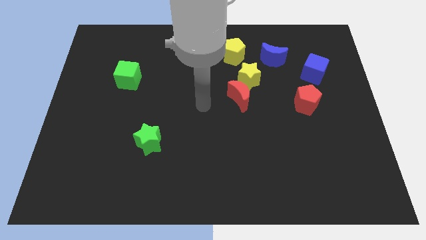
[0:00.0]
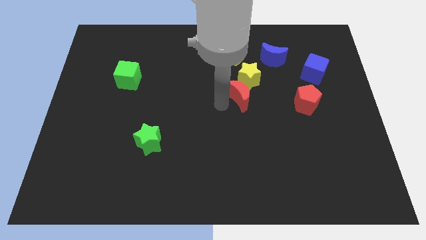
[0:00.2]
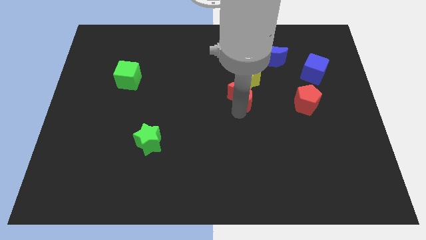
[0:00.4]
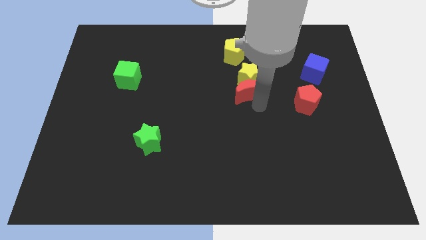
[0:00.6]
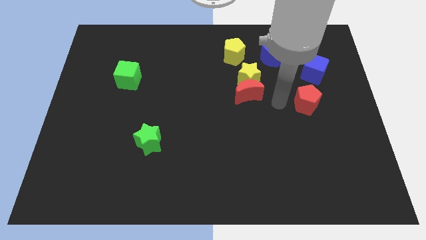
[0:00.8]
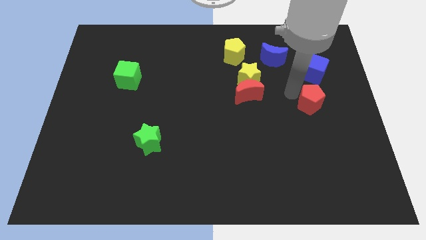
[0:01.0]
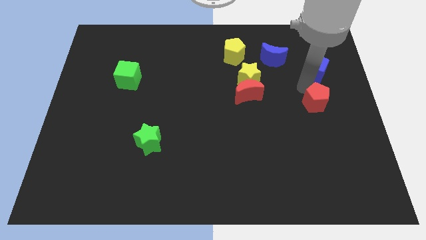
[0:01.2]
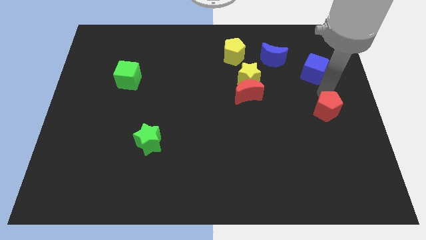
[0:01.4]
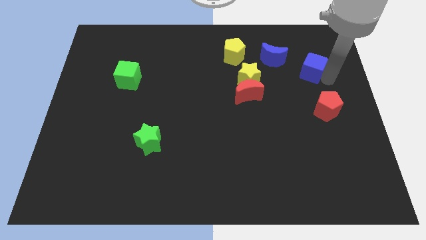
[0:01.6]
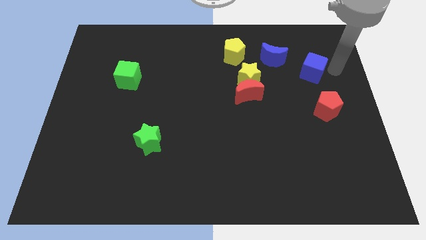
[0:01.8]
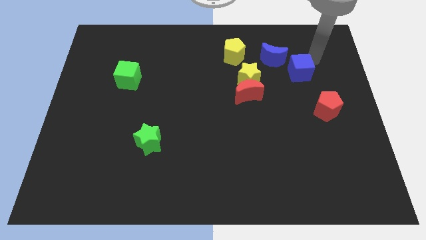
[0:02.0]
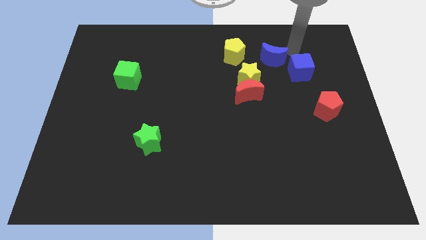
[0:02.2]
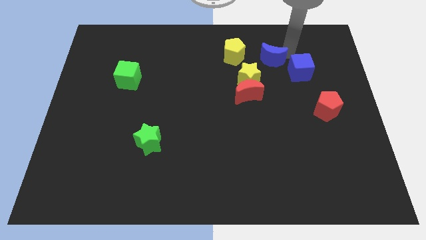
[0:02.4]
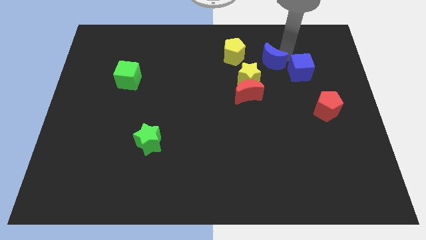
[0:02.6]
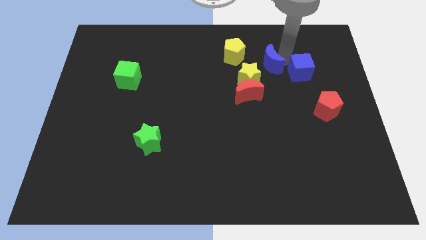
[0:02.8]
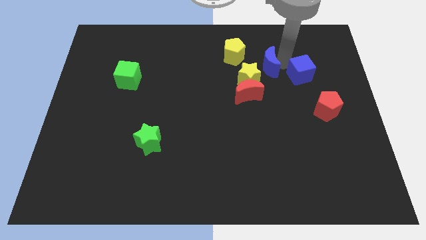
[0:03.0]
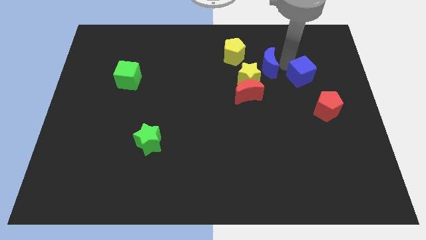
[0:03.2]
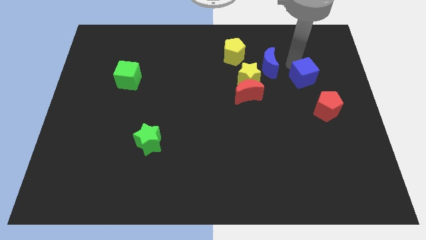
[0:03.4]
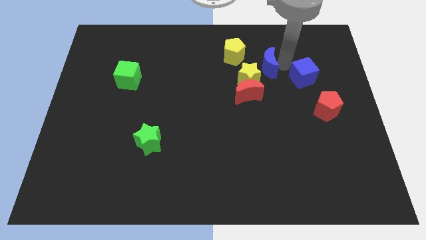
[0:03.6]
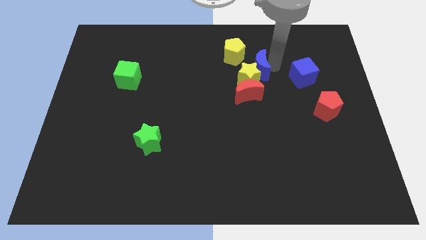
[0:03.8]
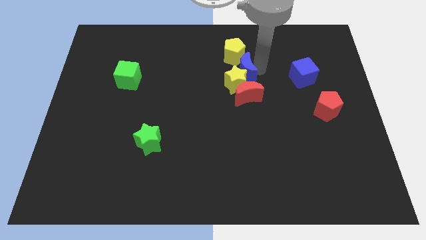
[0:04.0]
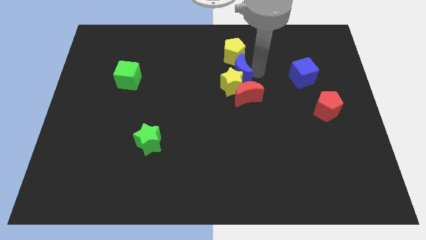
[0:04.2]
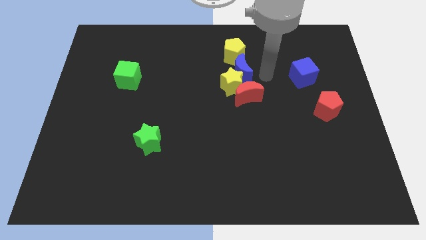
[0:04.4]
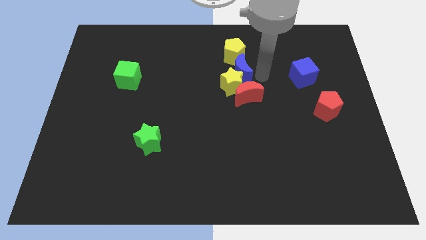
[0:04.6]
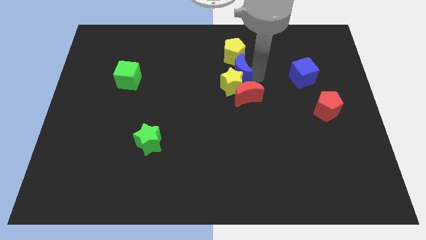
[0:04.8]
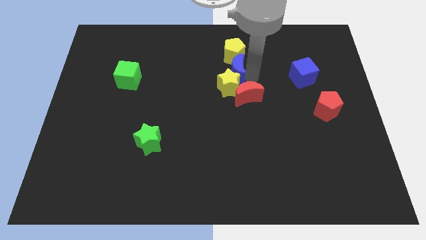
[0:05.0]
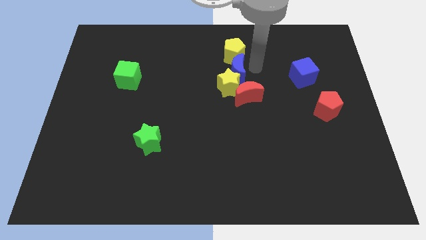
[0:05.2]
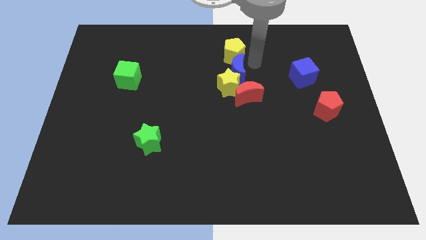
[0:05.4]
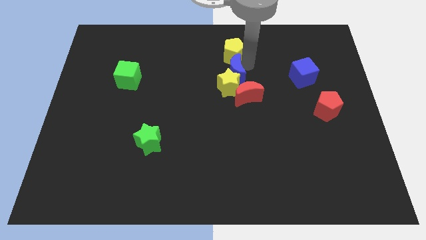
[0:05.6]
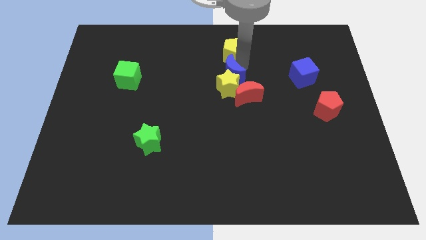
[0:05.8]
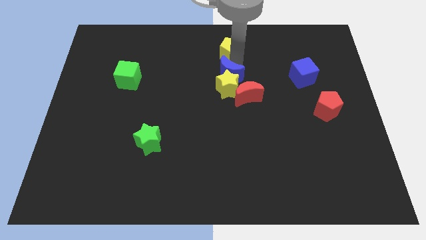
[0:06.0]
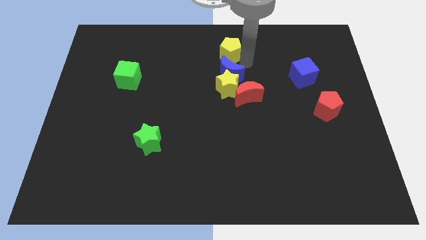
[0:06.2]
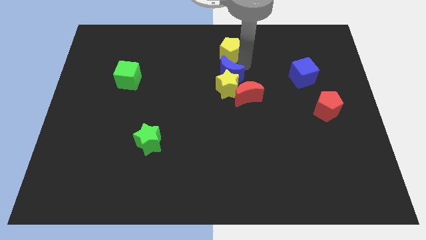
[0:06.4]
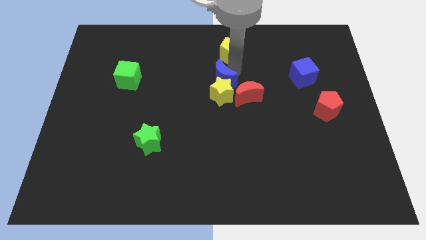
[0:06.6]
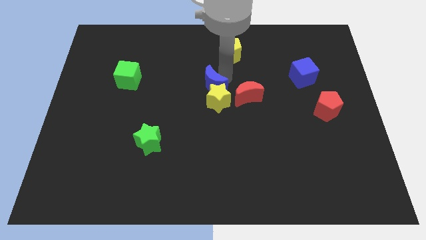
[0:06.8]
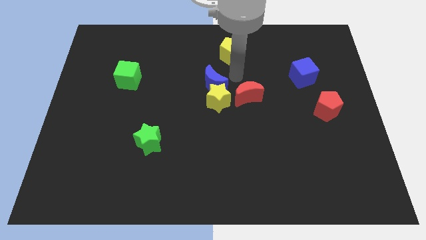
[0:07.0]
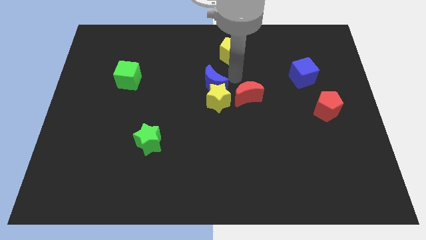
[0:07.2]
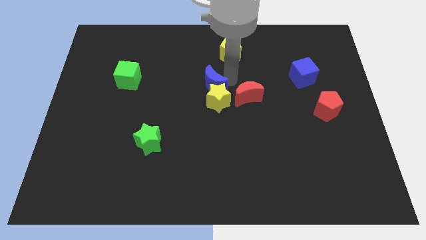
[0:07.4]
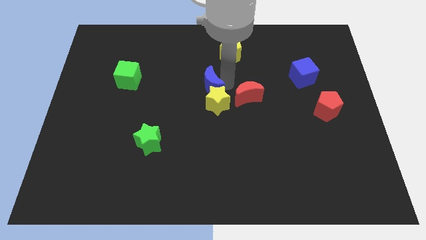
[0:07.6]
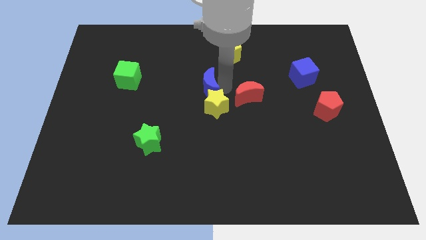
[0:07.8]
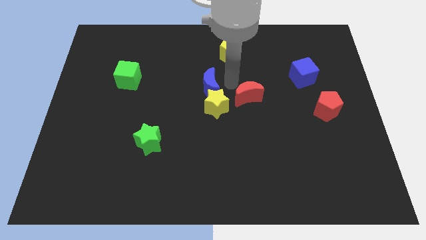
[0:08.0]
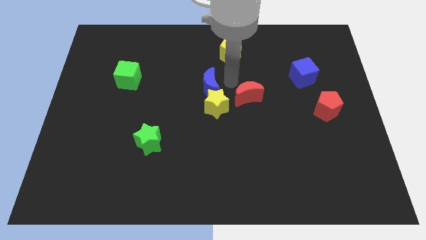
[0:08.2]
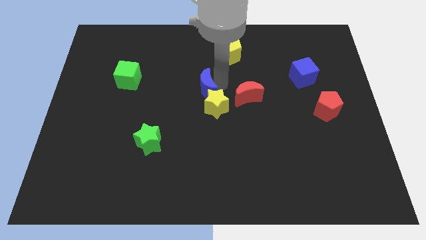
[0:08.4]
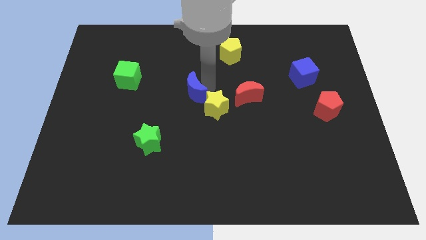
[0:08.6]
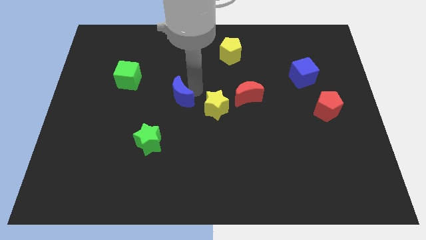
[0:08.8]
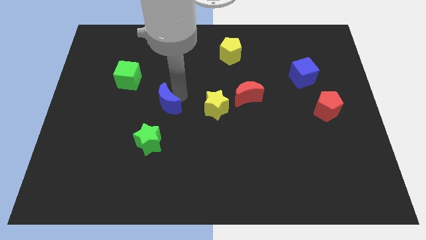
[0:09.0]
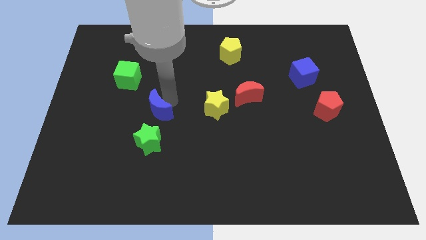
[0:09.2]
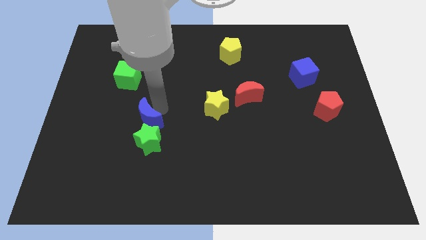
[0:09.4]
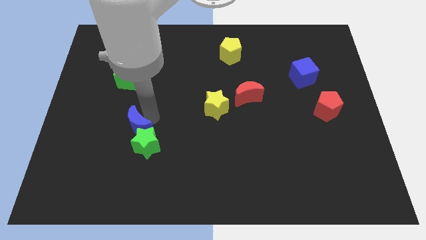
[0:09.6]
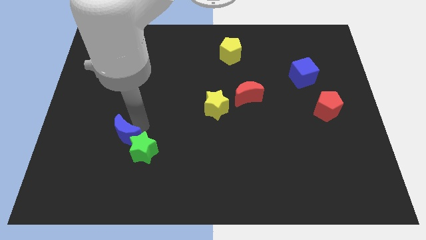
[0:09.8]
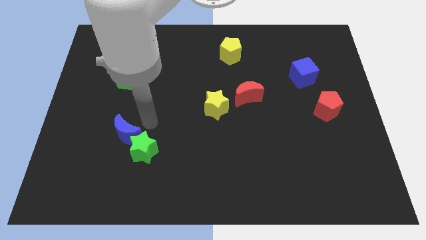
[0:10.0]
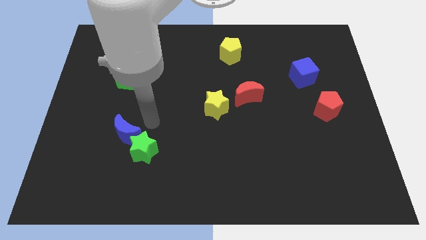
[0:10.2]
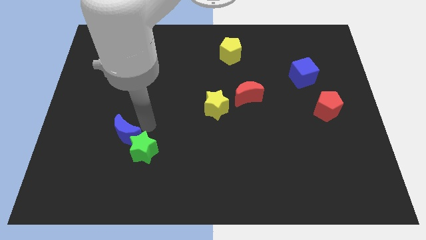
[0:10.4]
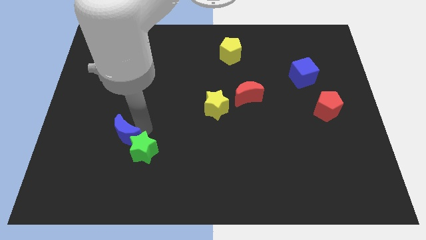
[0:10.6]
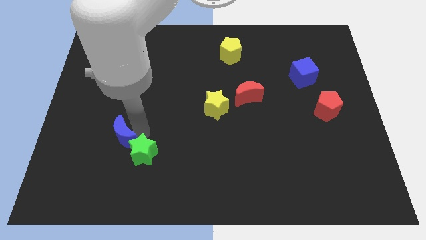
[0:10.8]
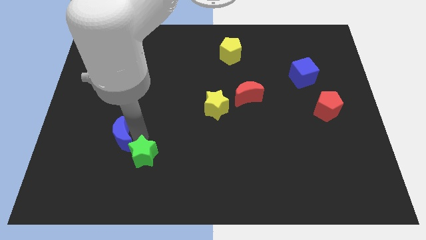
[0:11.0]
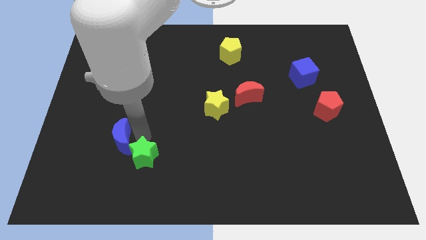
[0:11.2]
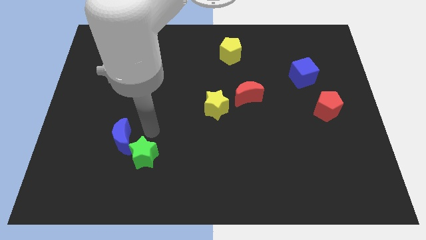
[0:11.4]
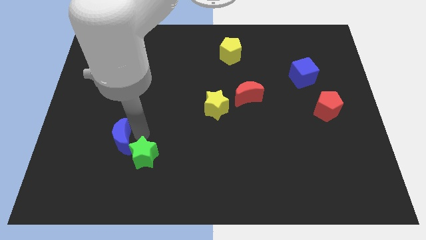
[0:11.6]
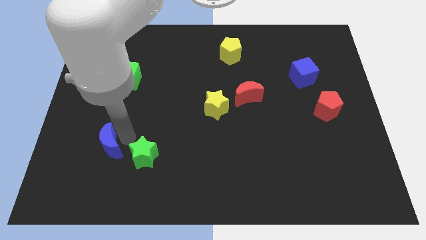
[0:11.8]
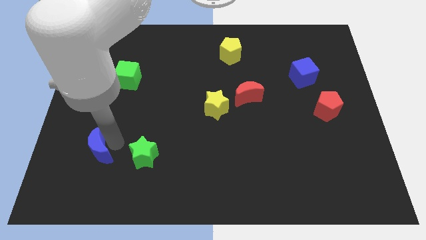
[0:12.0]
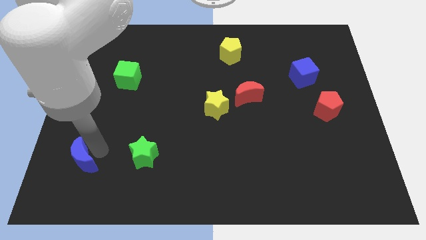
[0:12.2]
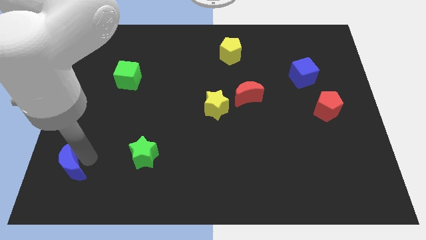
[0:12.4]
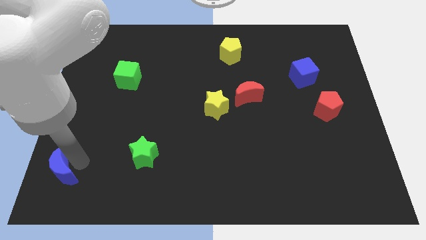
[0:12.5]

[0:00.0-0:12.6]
slide the blue moon to the bottom left corner

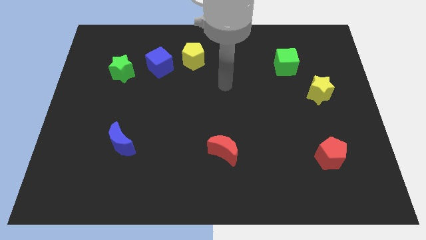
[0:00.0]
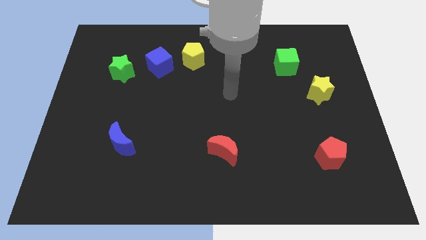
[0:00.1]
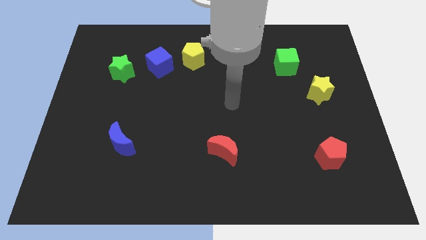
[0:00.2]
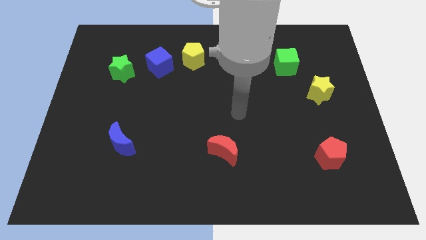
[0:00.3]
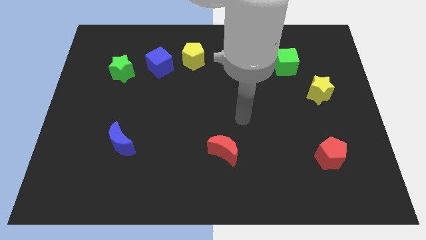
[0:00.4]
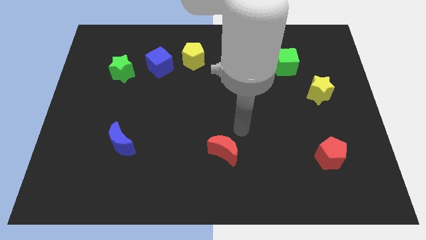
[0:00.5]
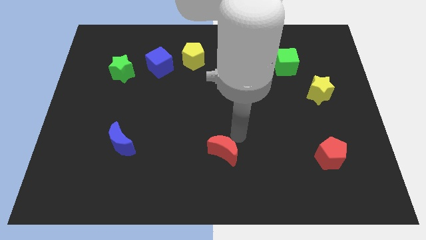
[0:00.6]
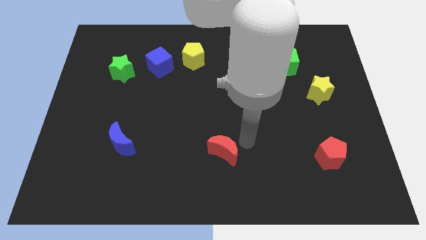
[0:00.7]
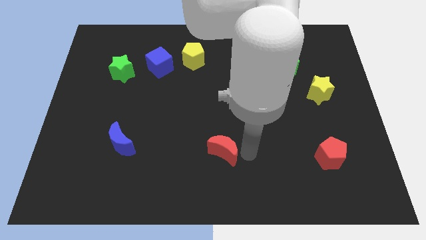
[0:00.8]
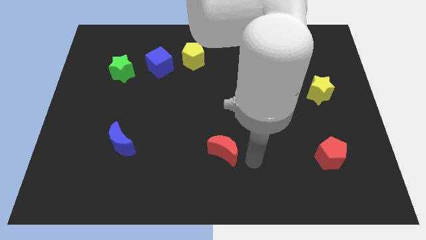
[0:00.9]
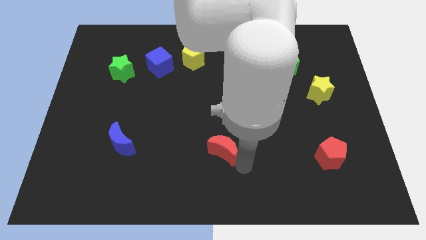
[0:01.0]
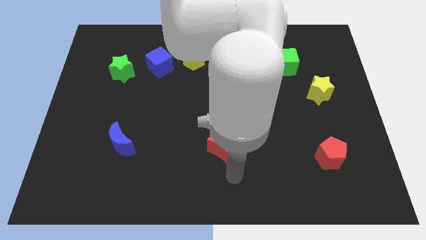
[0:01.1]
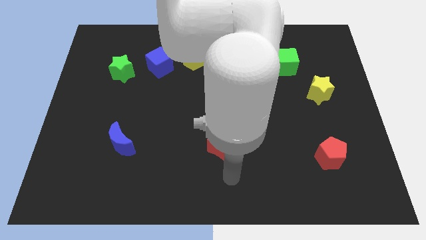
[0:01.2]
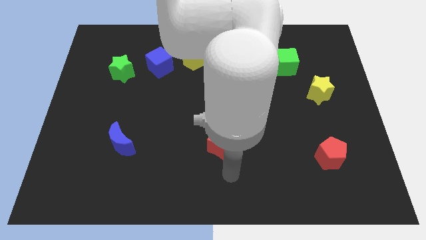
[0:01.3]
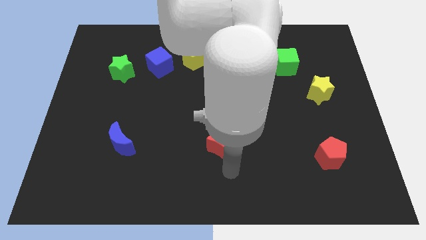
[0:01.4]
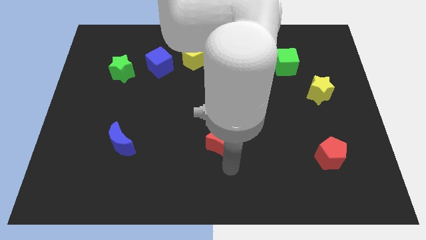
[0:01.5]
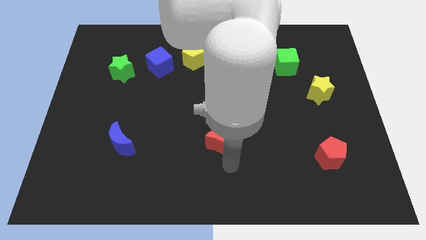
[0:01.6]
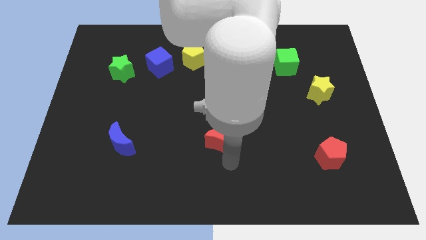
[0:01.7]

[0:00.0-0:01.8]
slide the red moon to the middle of the board
